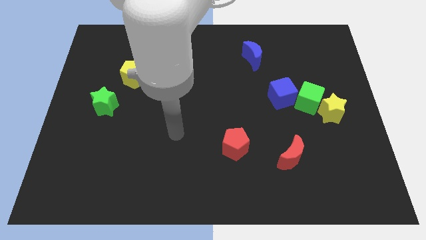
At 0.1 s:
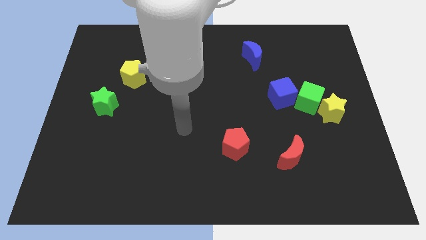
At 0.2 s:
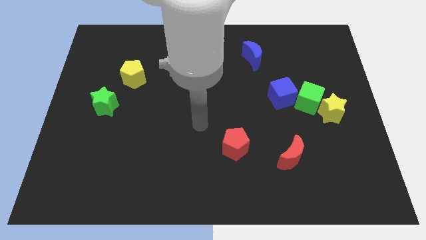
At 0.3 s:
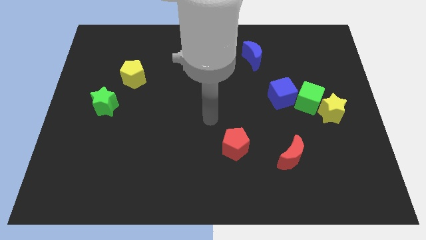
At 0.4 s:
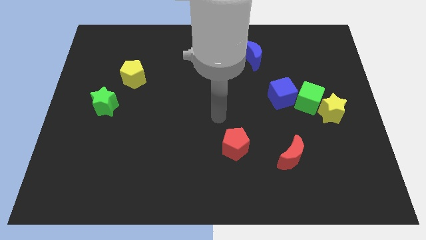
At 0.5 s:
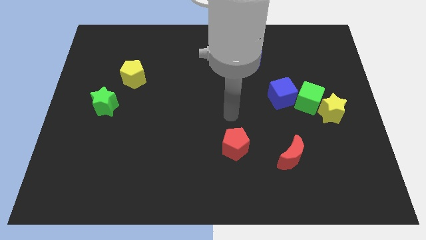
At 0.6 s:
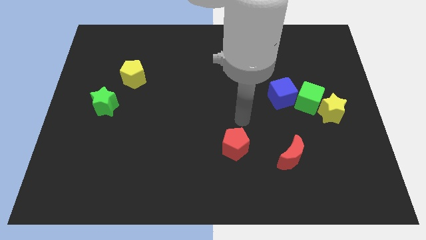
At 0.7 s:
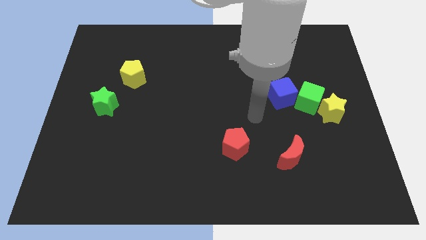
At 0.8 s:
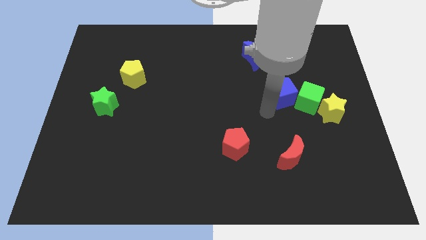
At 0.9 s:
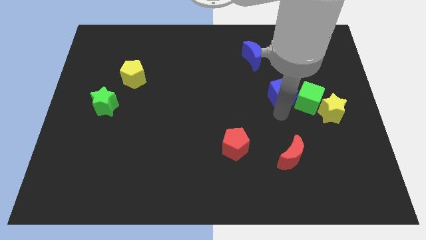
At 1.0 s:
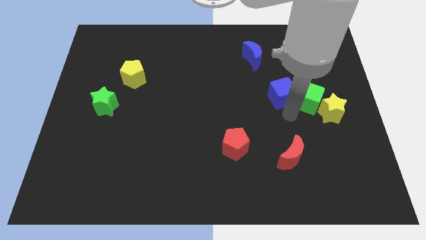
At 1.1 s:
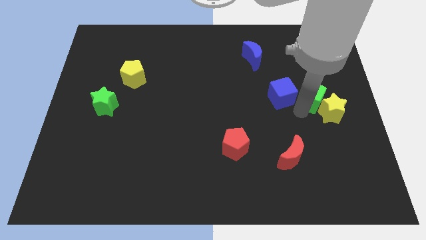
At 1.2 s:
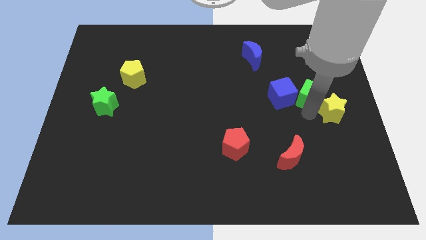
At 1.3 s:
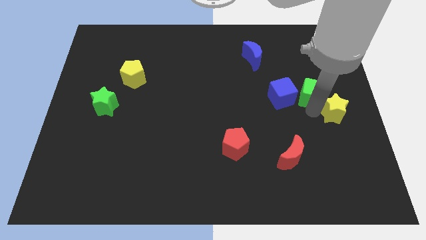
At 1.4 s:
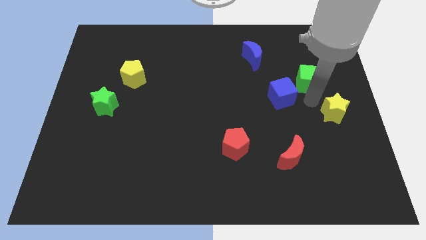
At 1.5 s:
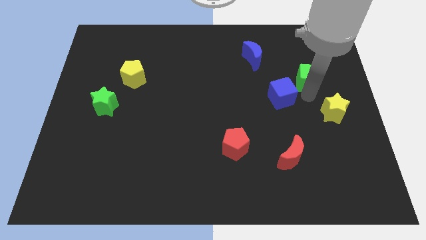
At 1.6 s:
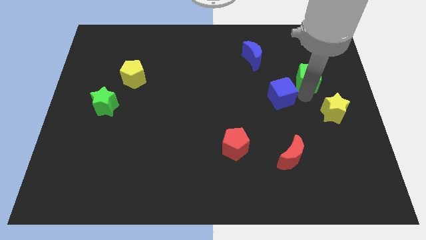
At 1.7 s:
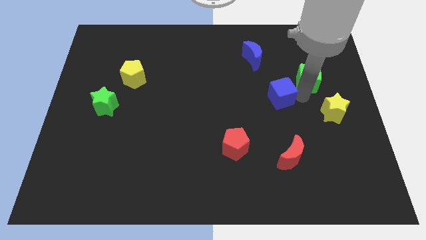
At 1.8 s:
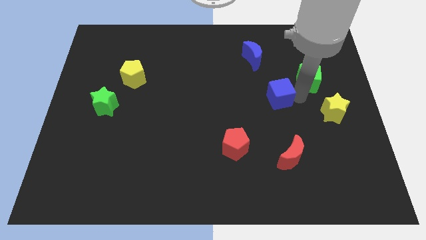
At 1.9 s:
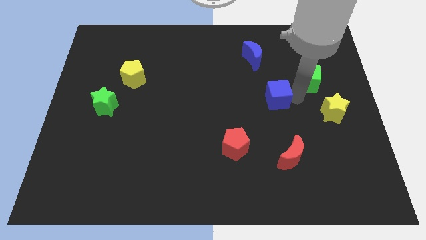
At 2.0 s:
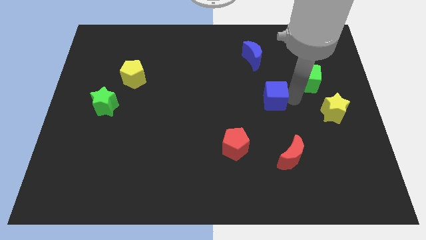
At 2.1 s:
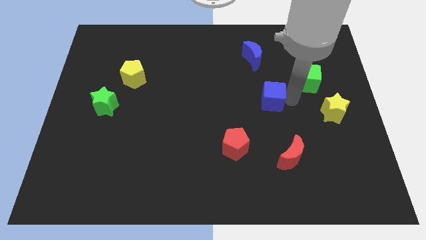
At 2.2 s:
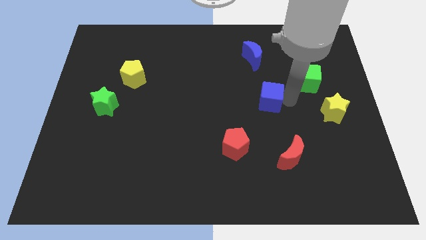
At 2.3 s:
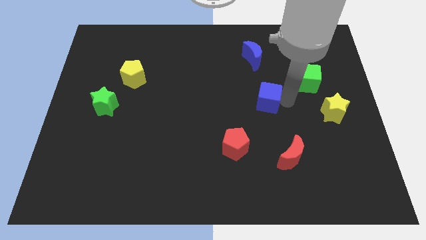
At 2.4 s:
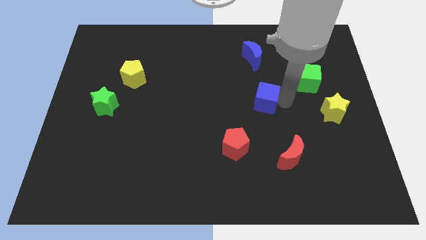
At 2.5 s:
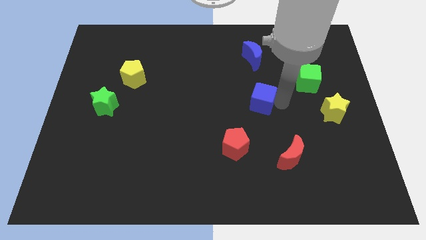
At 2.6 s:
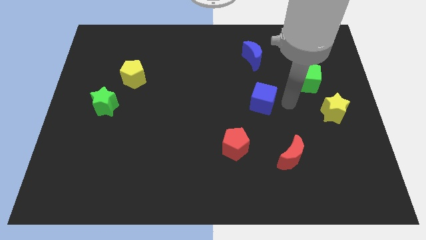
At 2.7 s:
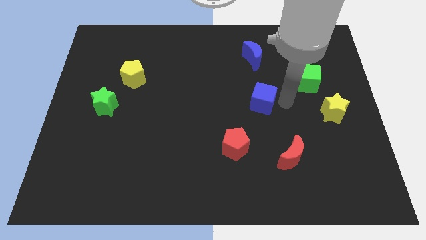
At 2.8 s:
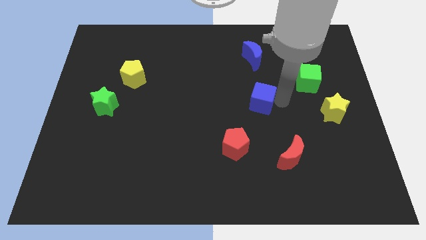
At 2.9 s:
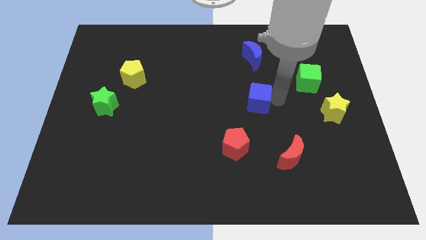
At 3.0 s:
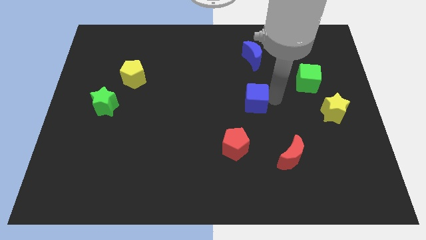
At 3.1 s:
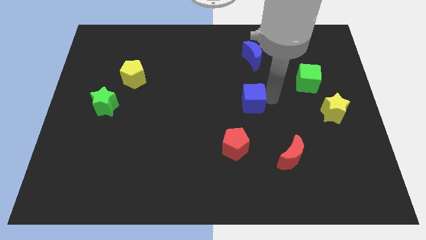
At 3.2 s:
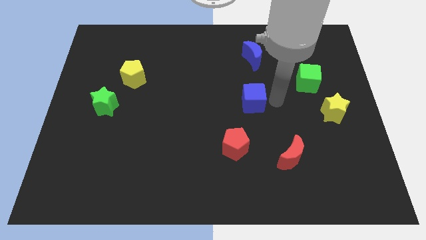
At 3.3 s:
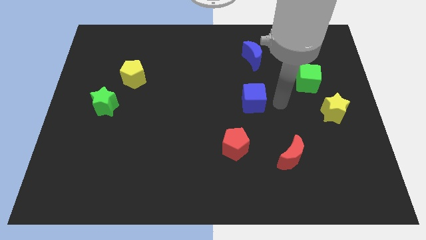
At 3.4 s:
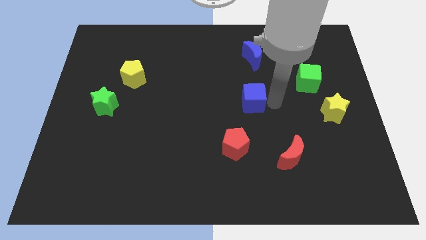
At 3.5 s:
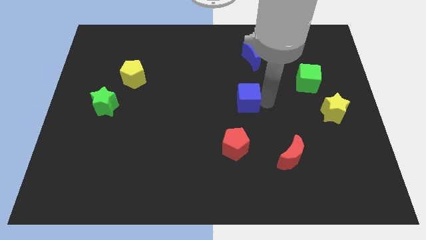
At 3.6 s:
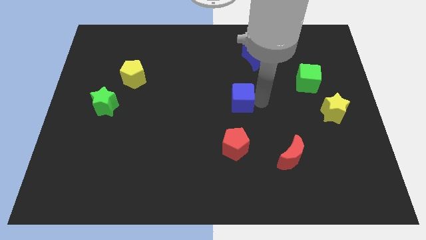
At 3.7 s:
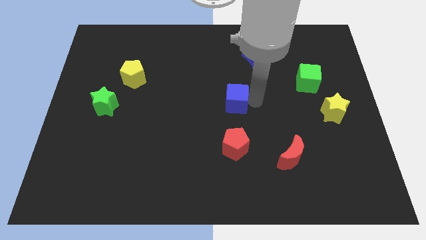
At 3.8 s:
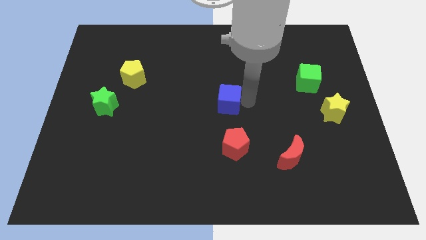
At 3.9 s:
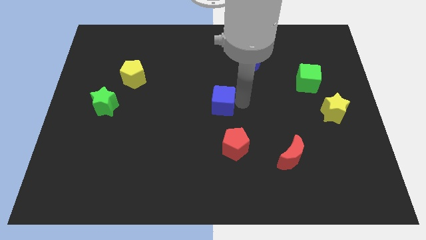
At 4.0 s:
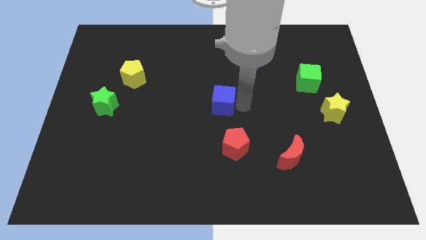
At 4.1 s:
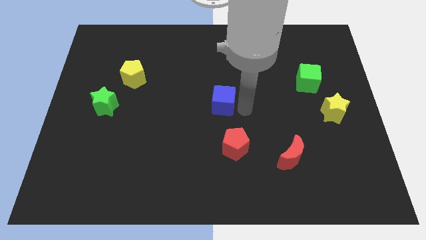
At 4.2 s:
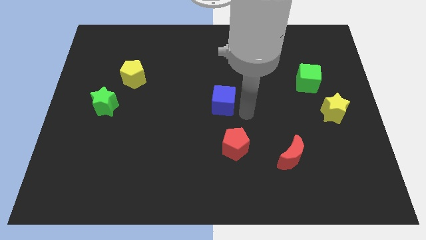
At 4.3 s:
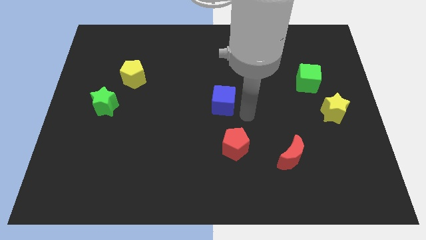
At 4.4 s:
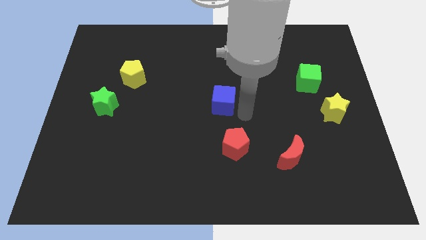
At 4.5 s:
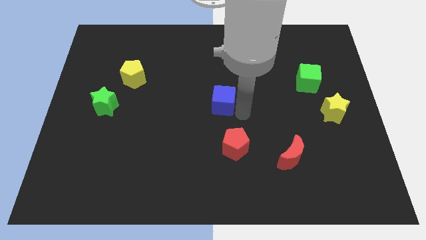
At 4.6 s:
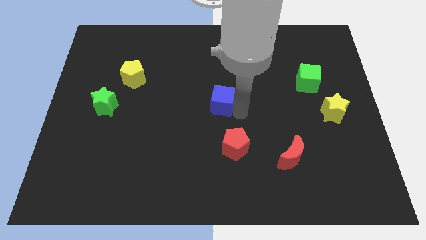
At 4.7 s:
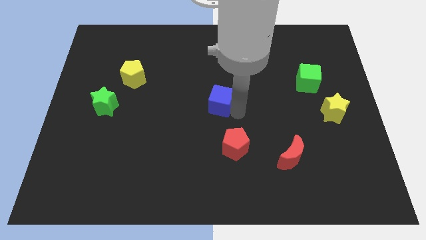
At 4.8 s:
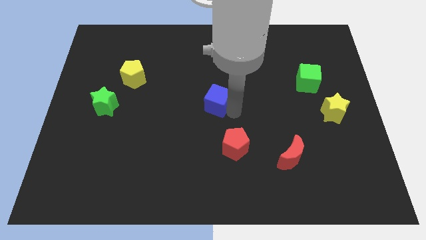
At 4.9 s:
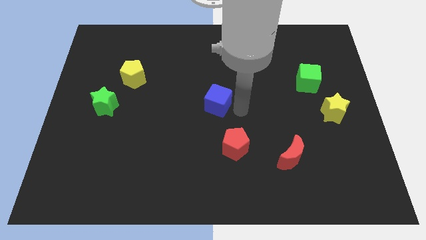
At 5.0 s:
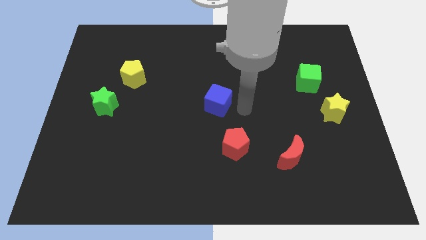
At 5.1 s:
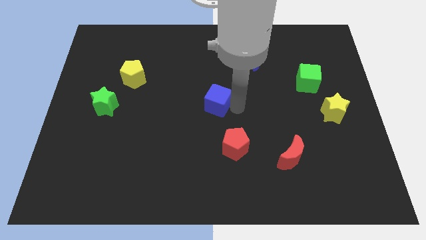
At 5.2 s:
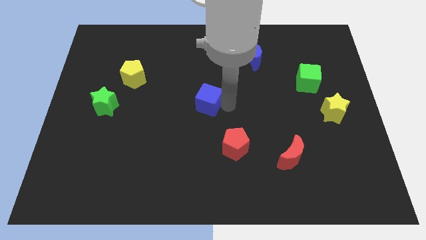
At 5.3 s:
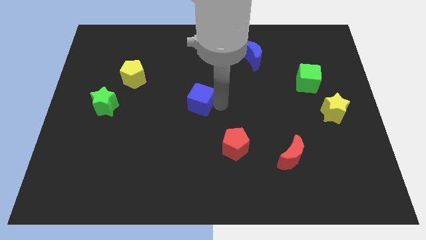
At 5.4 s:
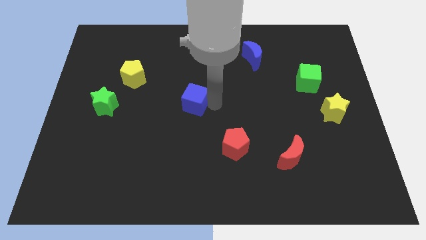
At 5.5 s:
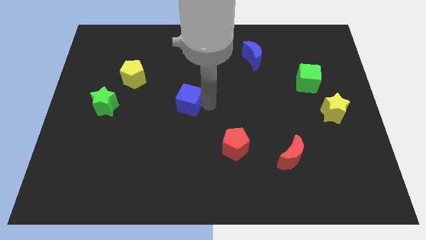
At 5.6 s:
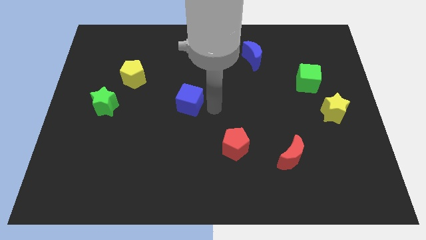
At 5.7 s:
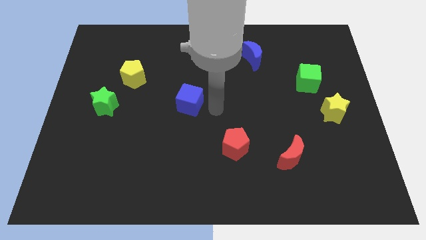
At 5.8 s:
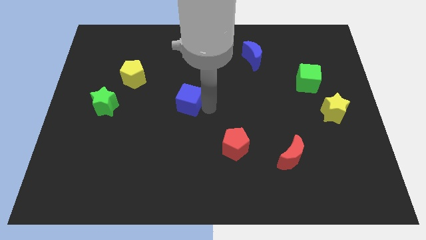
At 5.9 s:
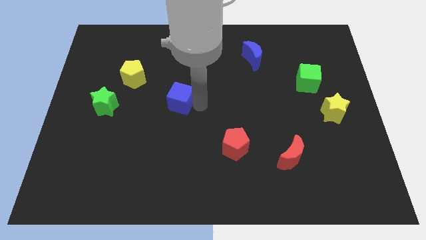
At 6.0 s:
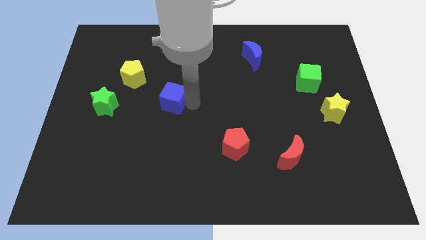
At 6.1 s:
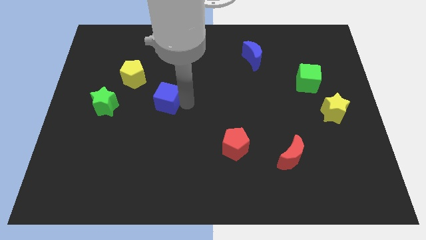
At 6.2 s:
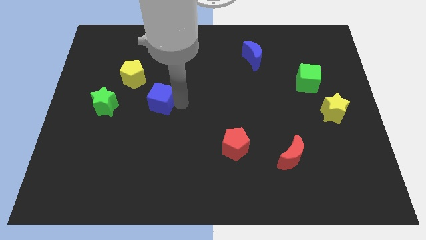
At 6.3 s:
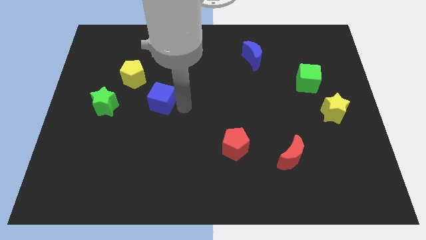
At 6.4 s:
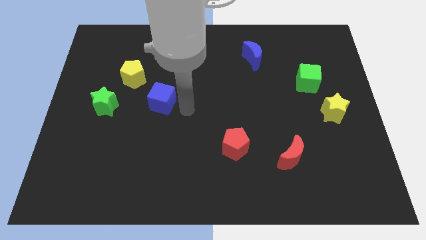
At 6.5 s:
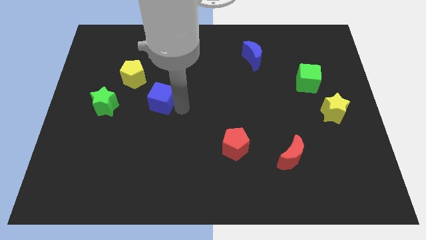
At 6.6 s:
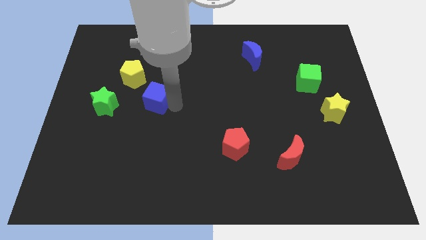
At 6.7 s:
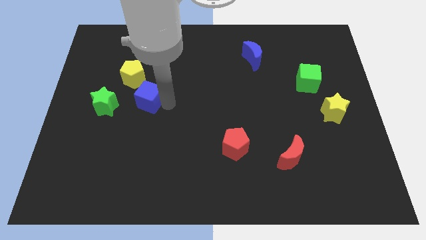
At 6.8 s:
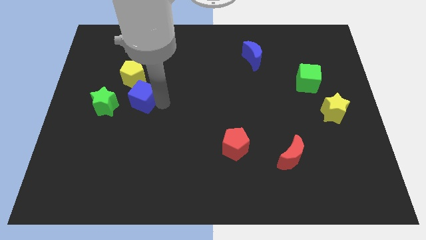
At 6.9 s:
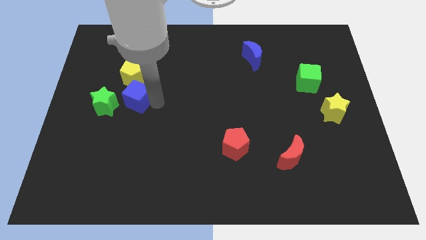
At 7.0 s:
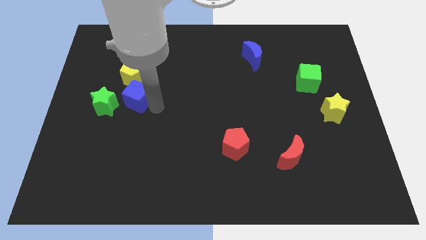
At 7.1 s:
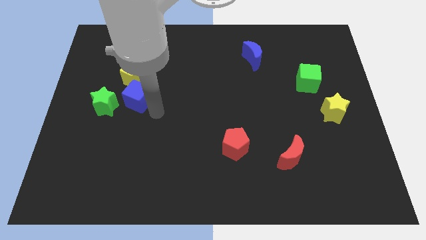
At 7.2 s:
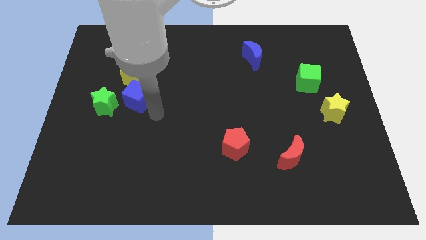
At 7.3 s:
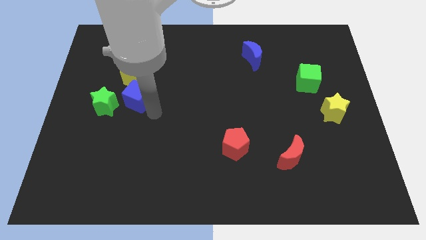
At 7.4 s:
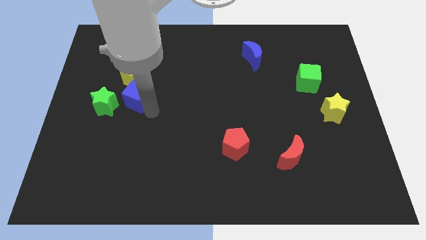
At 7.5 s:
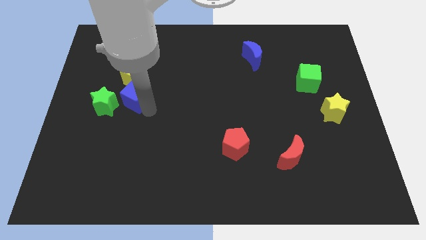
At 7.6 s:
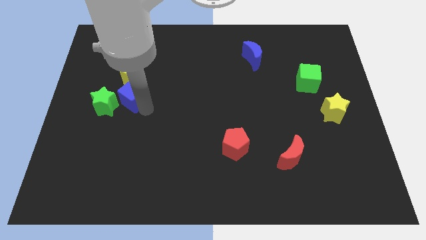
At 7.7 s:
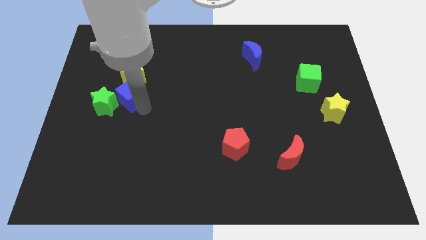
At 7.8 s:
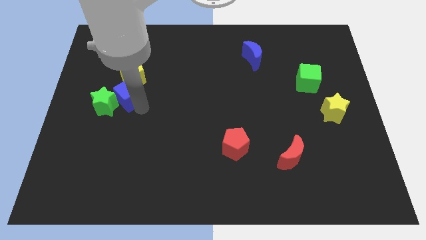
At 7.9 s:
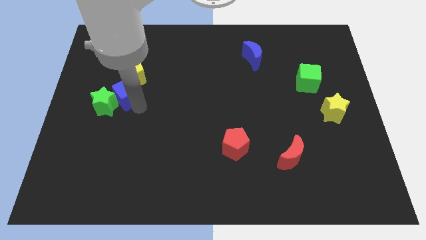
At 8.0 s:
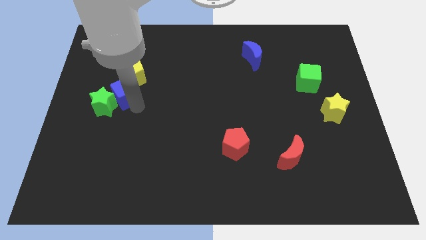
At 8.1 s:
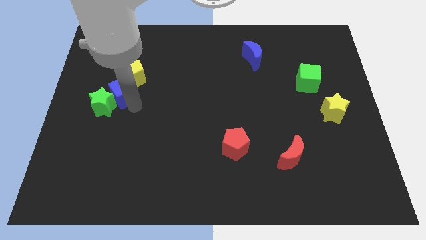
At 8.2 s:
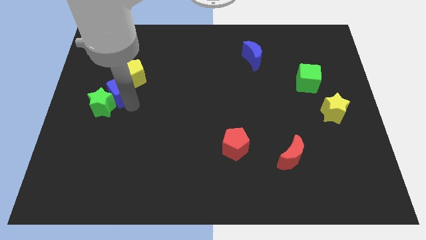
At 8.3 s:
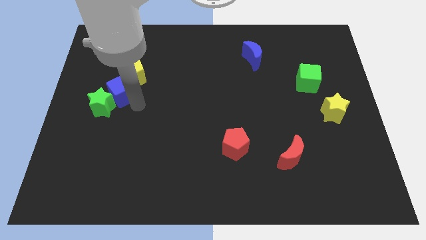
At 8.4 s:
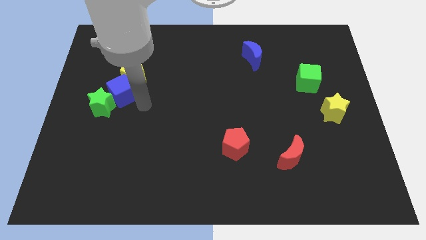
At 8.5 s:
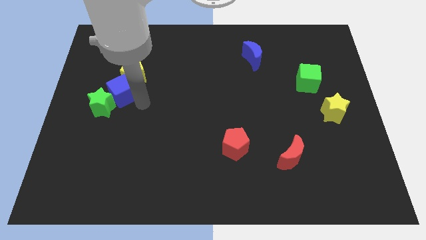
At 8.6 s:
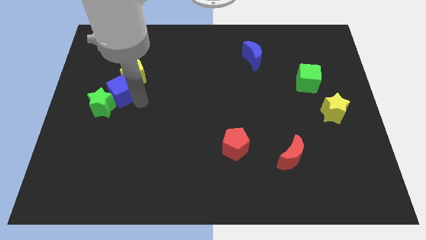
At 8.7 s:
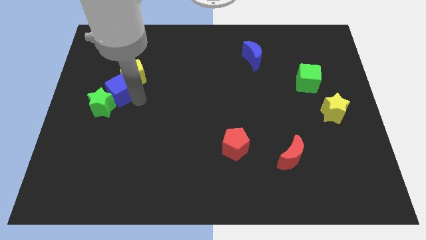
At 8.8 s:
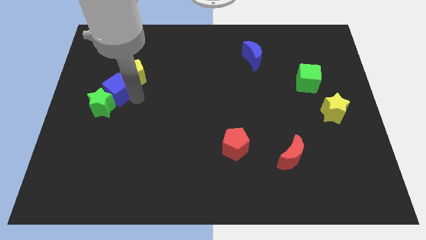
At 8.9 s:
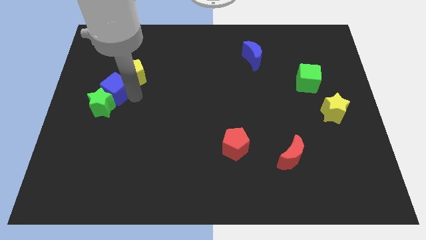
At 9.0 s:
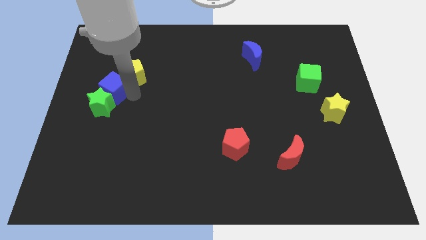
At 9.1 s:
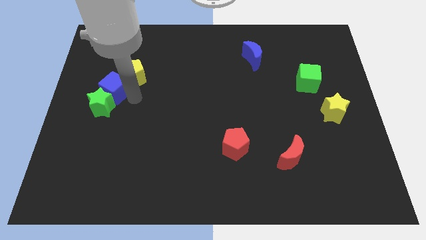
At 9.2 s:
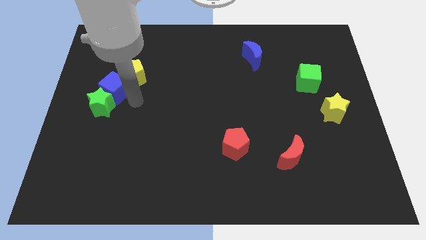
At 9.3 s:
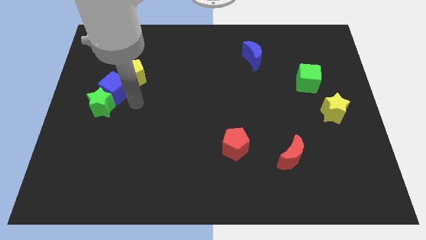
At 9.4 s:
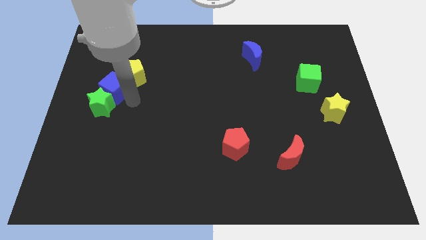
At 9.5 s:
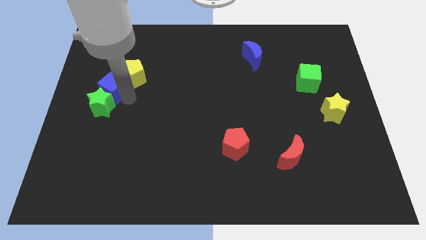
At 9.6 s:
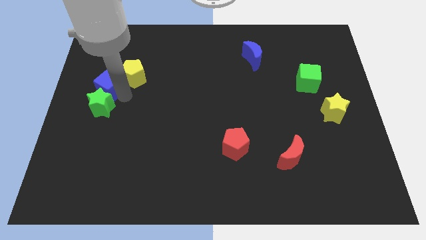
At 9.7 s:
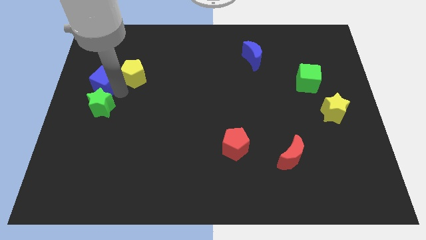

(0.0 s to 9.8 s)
slide the blue cube to the center left
